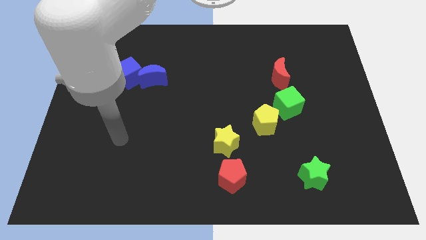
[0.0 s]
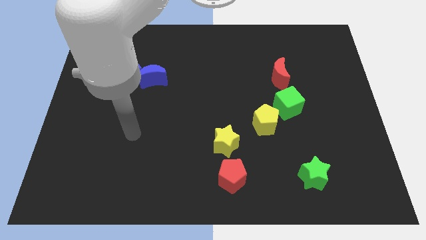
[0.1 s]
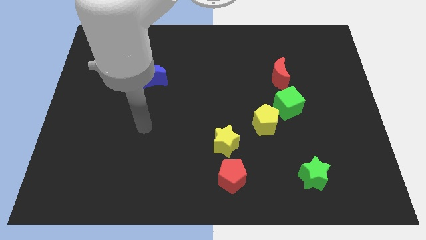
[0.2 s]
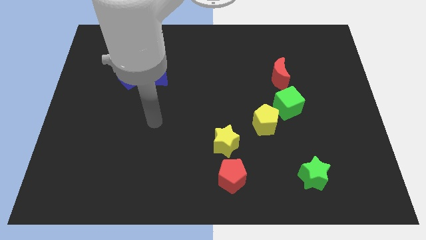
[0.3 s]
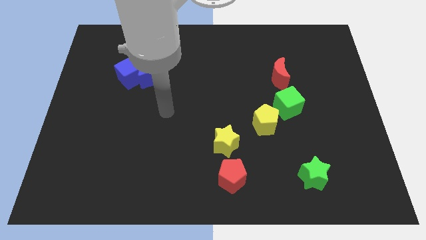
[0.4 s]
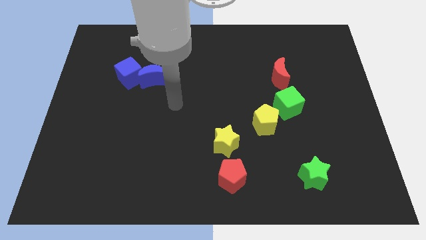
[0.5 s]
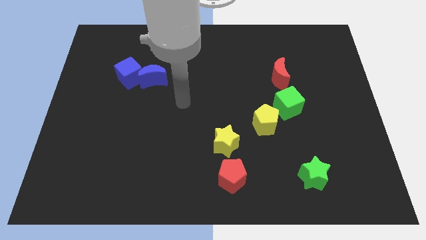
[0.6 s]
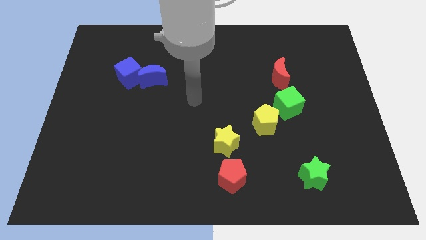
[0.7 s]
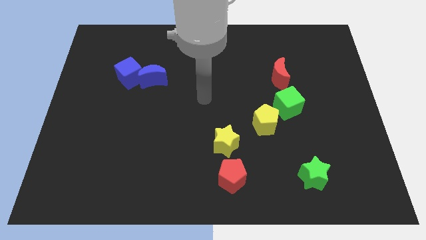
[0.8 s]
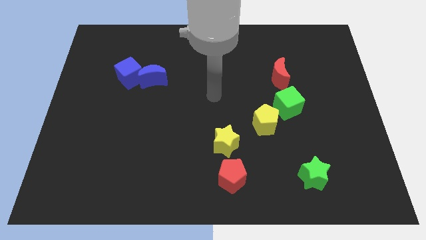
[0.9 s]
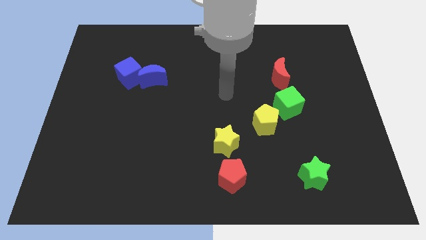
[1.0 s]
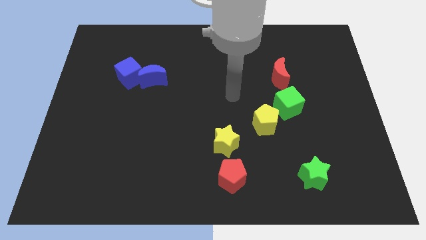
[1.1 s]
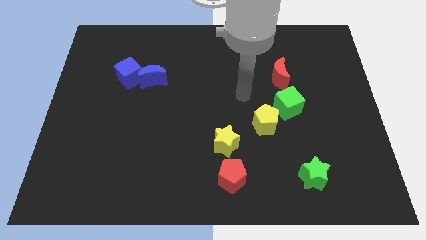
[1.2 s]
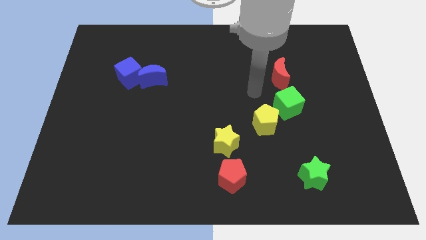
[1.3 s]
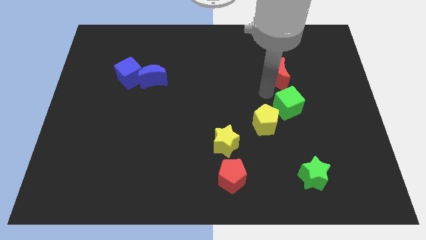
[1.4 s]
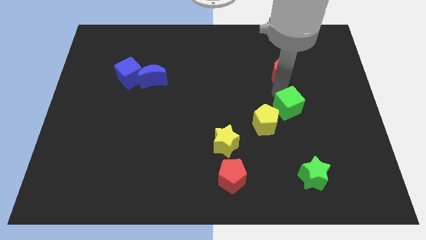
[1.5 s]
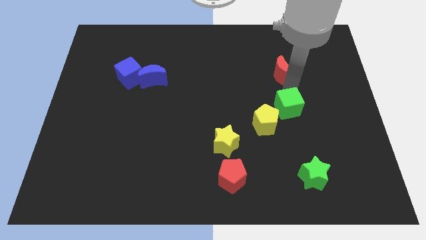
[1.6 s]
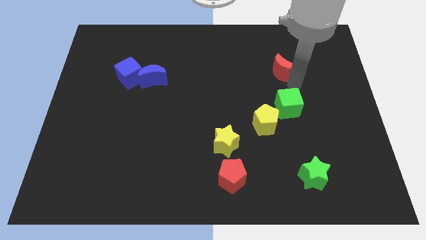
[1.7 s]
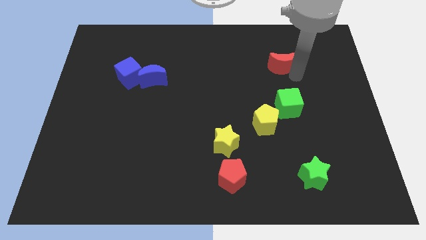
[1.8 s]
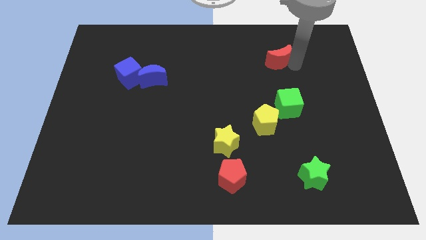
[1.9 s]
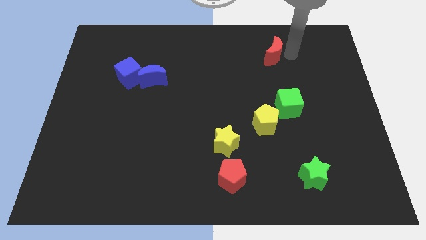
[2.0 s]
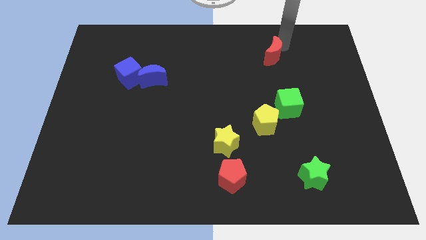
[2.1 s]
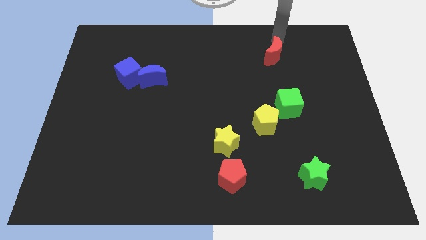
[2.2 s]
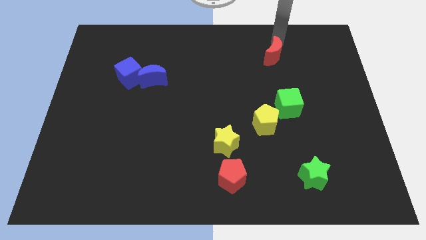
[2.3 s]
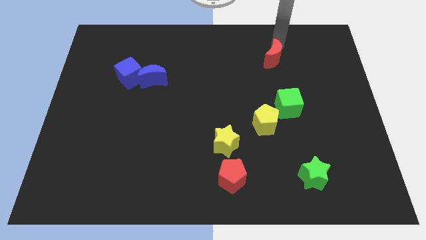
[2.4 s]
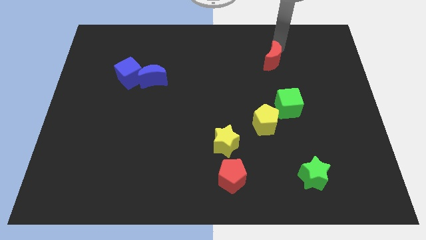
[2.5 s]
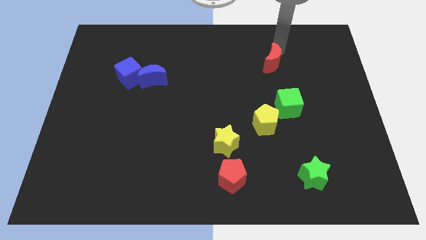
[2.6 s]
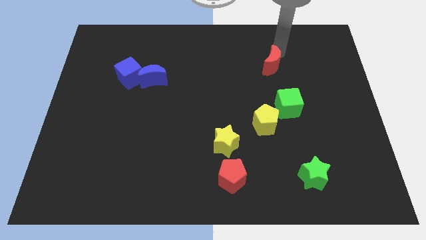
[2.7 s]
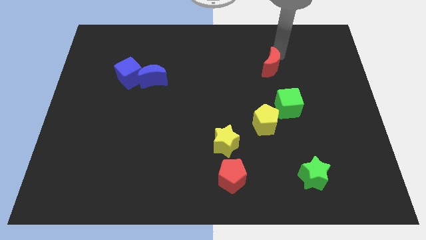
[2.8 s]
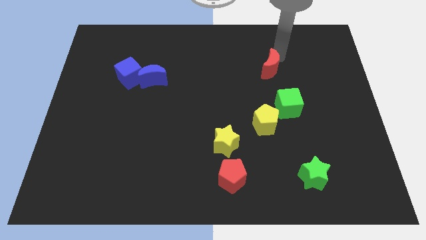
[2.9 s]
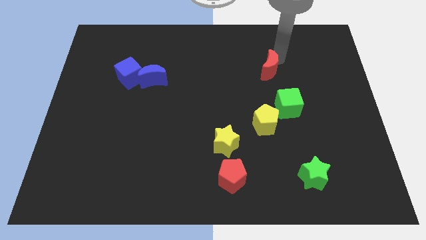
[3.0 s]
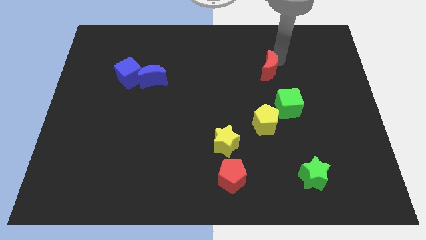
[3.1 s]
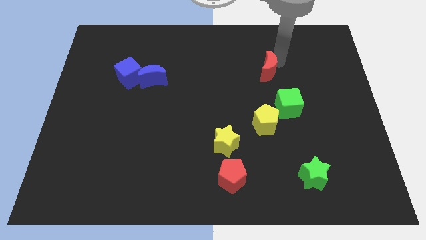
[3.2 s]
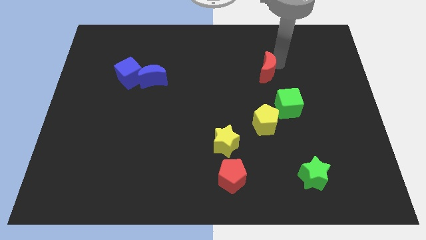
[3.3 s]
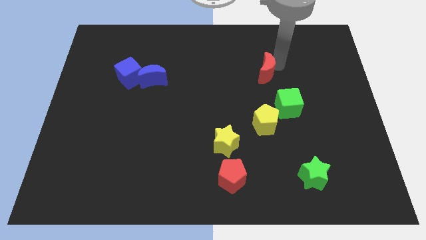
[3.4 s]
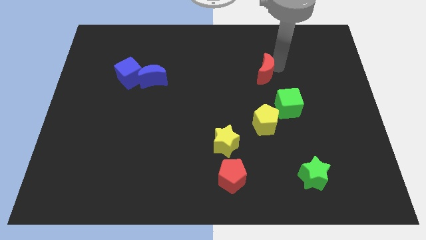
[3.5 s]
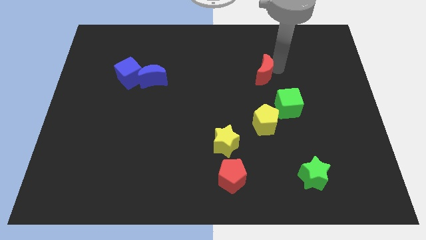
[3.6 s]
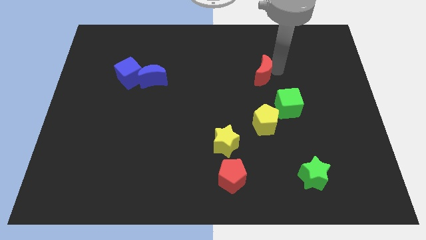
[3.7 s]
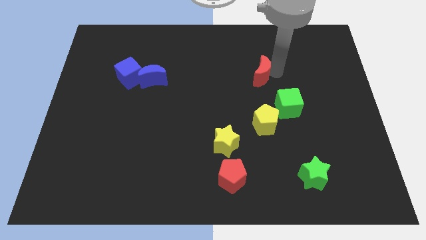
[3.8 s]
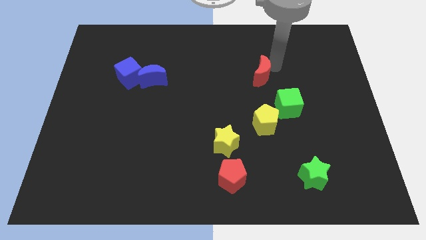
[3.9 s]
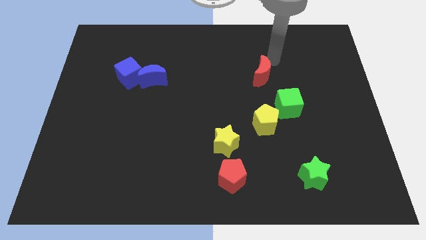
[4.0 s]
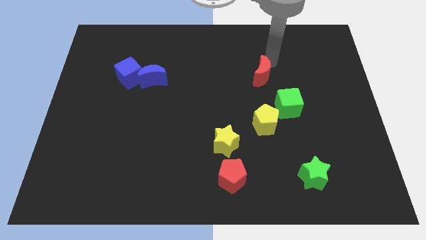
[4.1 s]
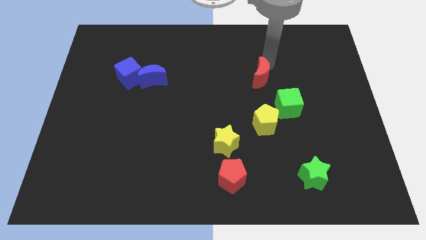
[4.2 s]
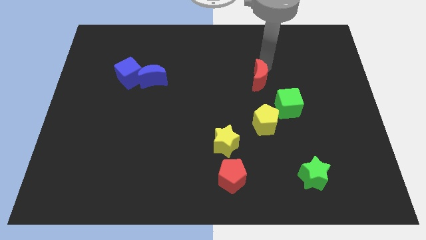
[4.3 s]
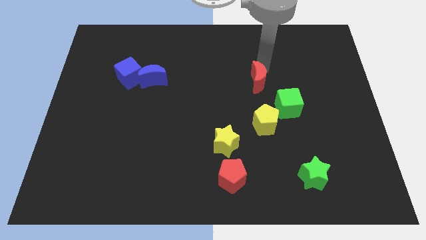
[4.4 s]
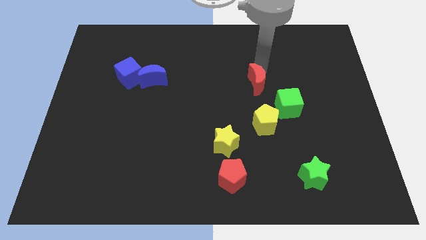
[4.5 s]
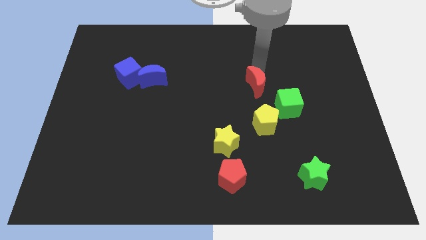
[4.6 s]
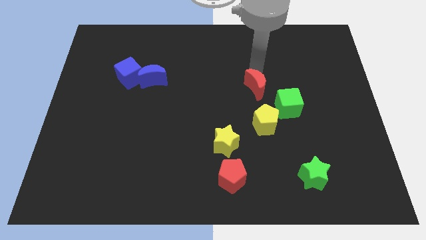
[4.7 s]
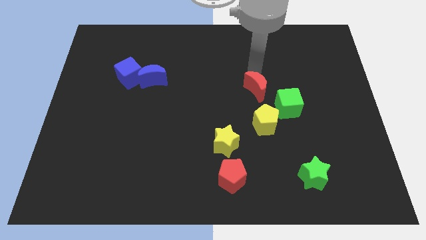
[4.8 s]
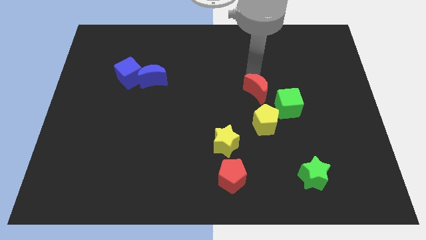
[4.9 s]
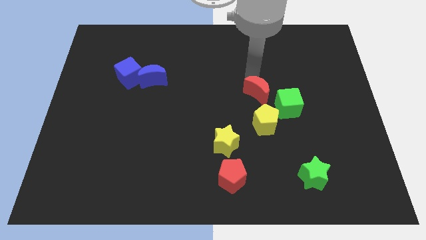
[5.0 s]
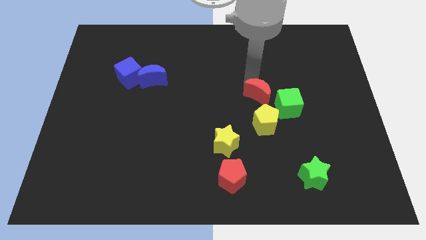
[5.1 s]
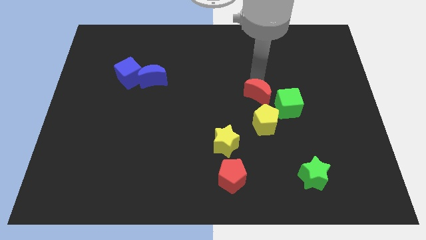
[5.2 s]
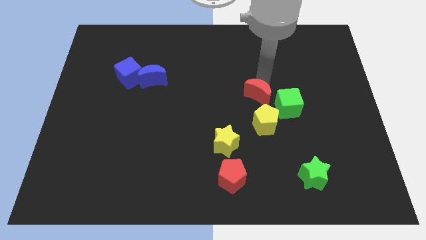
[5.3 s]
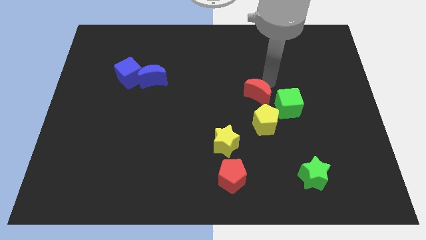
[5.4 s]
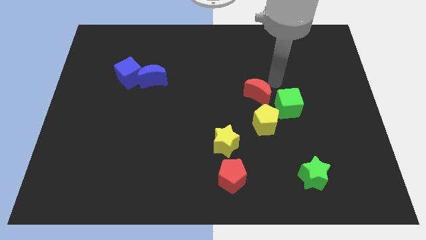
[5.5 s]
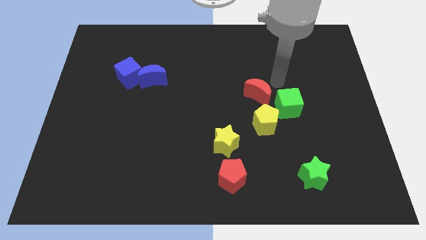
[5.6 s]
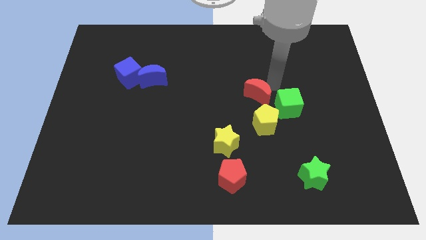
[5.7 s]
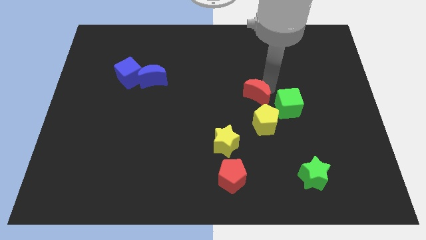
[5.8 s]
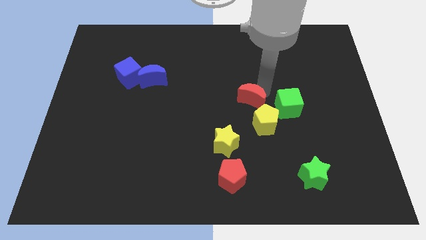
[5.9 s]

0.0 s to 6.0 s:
slide the red moon to the top left of the yellow pentagon

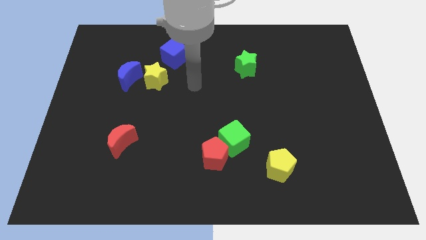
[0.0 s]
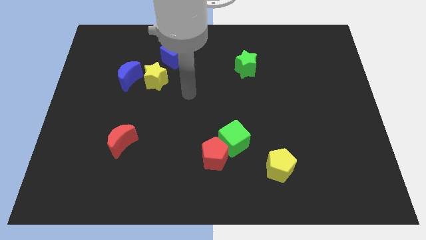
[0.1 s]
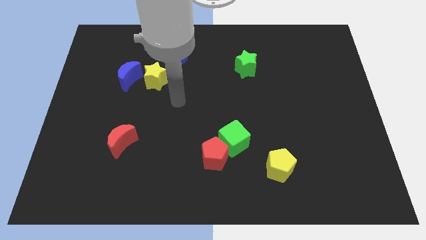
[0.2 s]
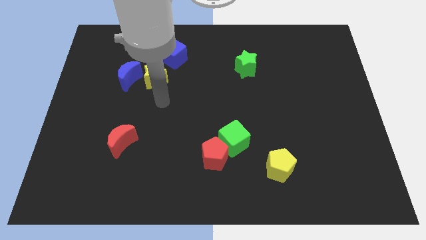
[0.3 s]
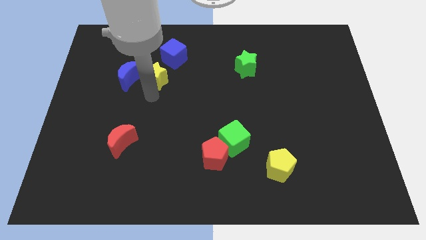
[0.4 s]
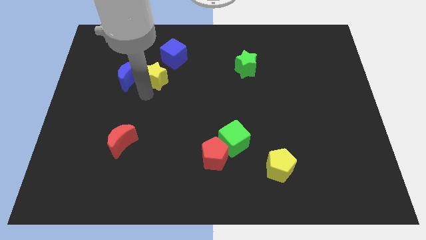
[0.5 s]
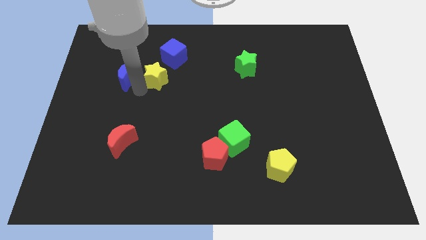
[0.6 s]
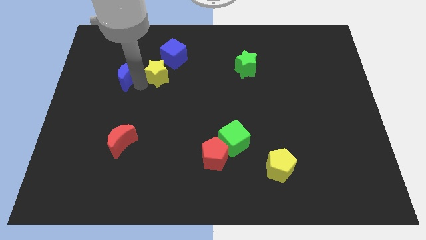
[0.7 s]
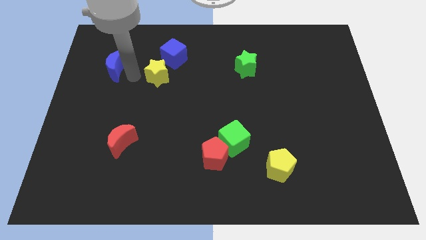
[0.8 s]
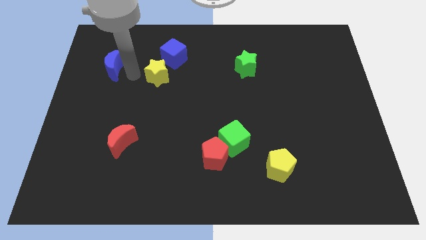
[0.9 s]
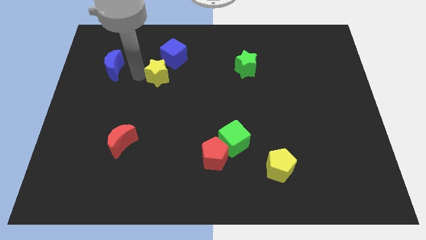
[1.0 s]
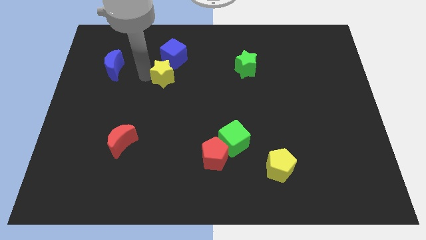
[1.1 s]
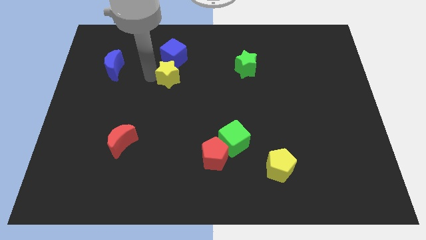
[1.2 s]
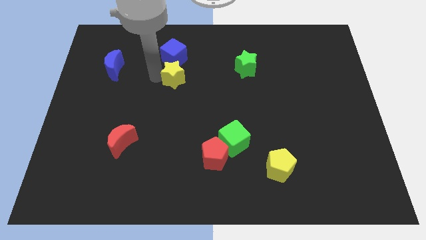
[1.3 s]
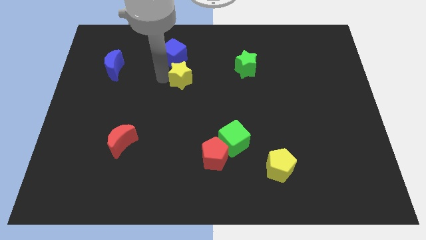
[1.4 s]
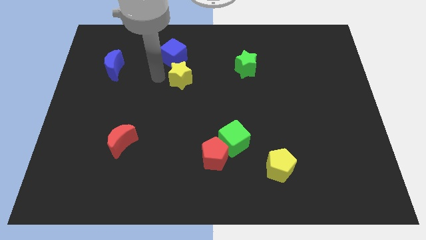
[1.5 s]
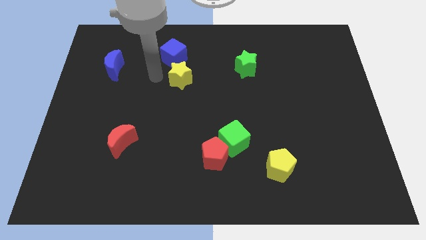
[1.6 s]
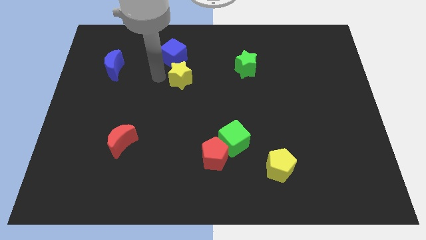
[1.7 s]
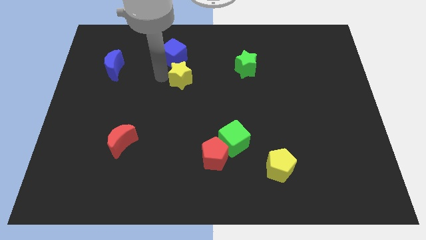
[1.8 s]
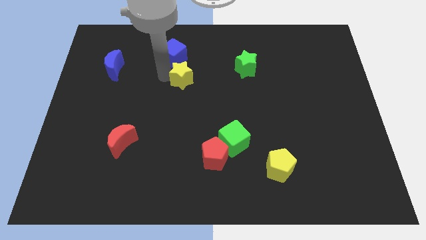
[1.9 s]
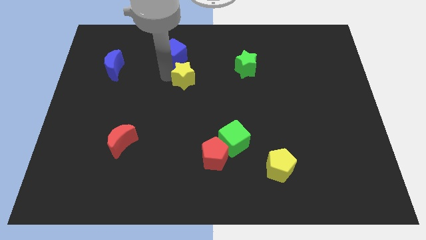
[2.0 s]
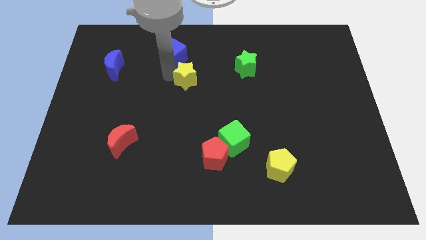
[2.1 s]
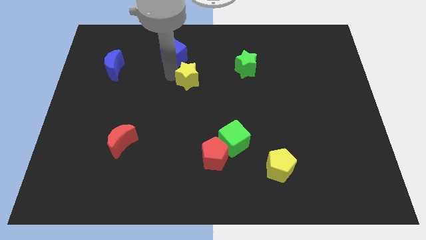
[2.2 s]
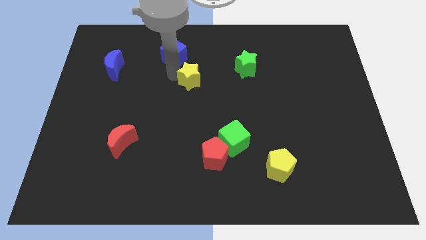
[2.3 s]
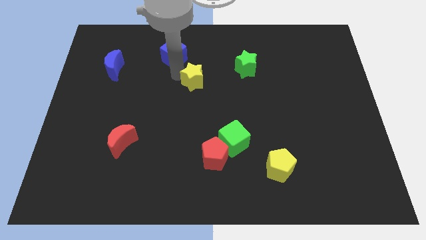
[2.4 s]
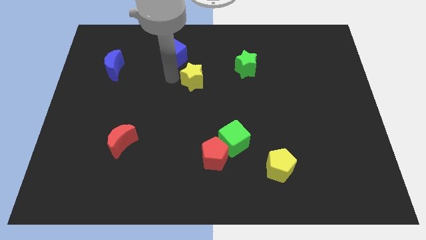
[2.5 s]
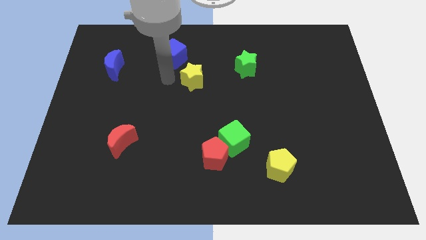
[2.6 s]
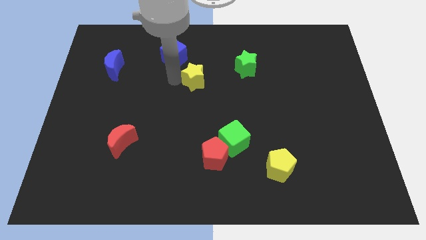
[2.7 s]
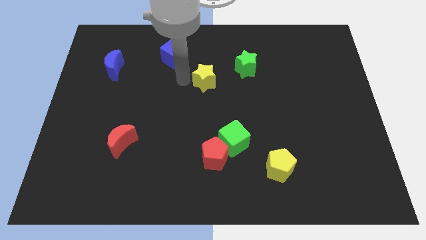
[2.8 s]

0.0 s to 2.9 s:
put the yellow star to the bottom left of the green star
